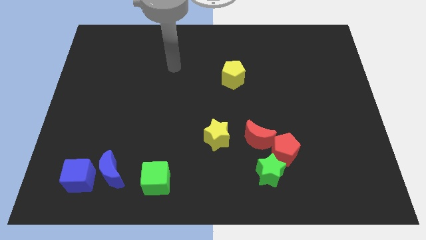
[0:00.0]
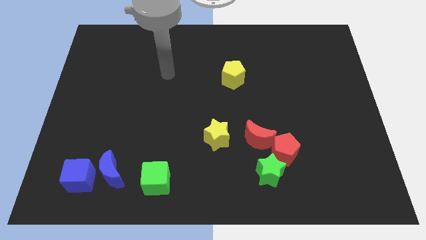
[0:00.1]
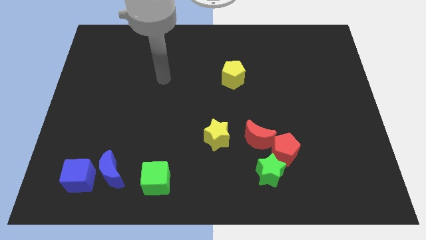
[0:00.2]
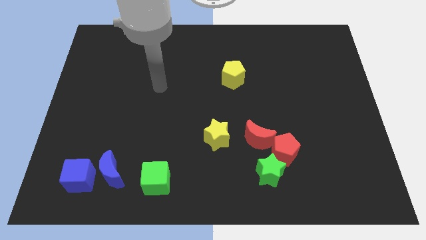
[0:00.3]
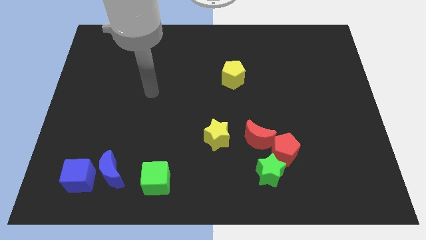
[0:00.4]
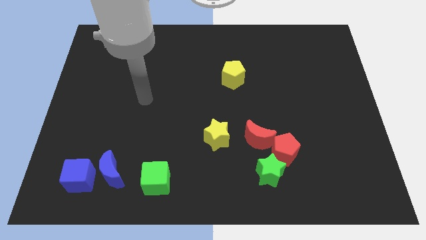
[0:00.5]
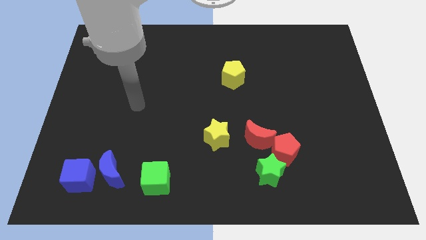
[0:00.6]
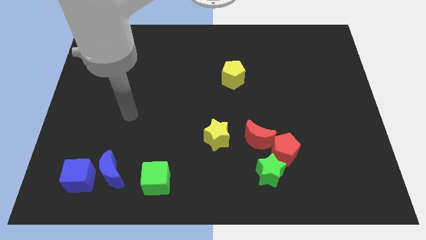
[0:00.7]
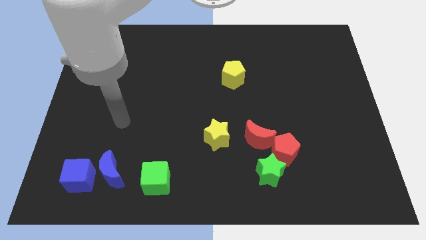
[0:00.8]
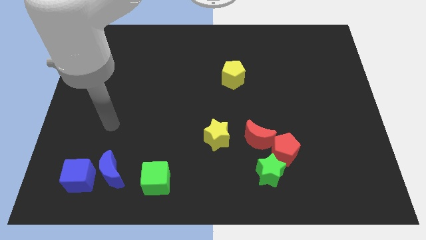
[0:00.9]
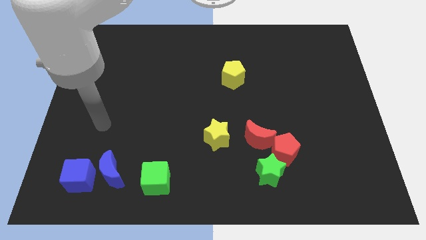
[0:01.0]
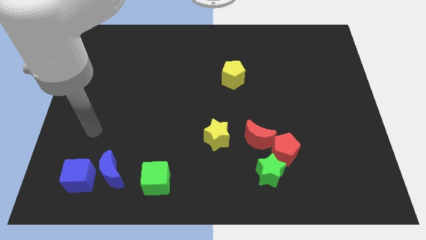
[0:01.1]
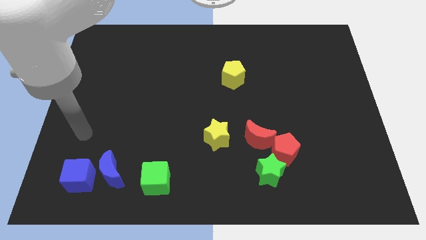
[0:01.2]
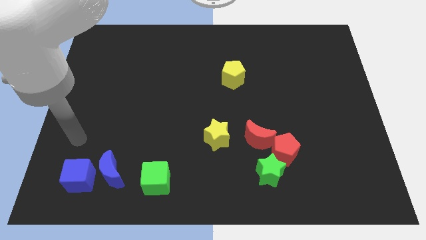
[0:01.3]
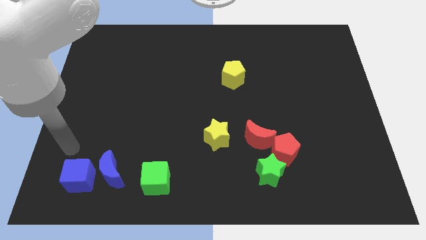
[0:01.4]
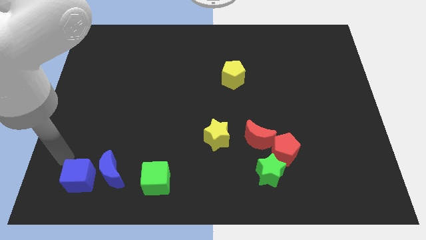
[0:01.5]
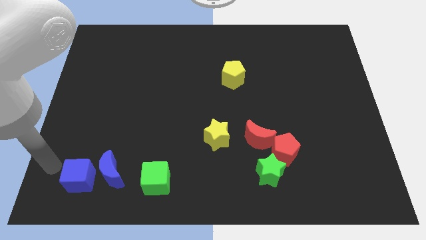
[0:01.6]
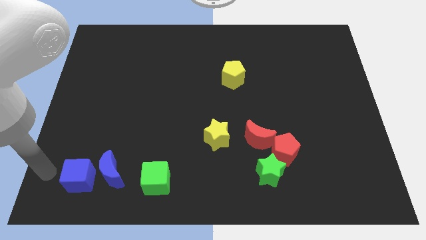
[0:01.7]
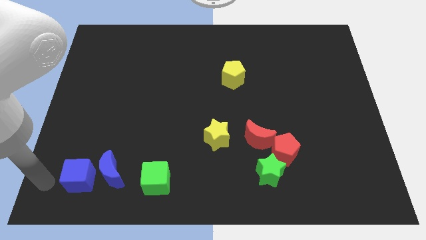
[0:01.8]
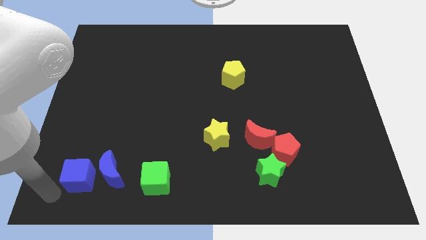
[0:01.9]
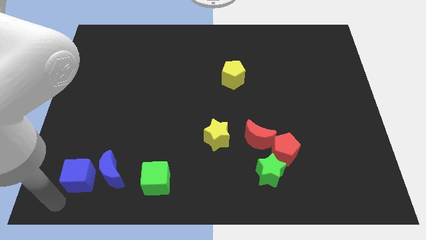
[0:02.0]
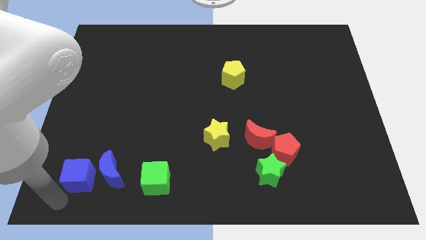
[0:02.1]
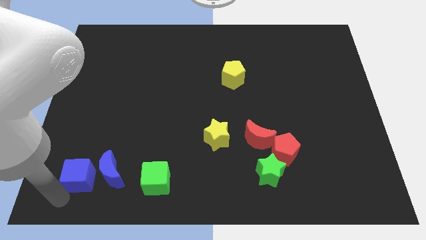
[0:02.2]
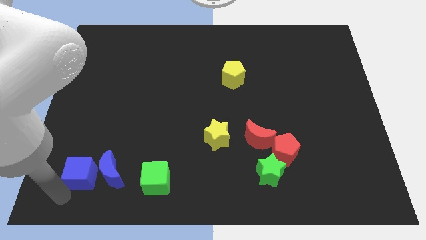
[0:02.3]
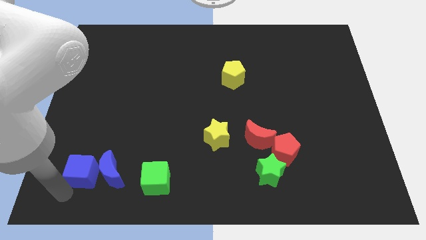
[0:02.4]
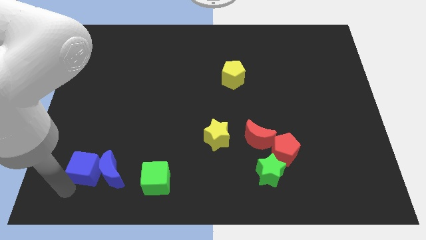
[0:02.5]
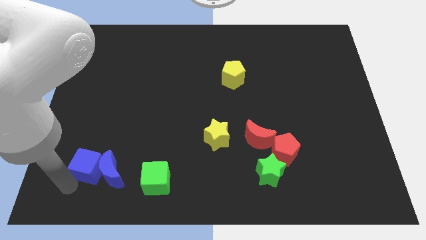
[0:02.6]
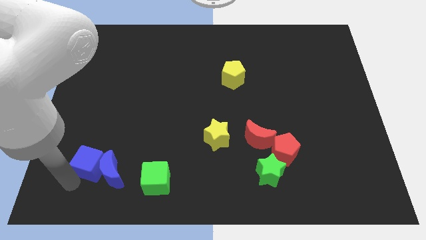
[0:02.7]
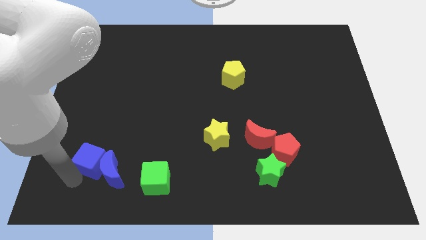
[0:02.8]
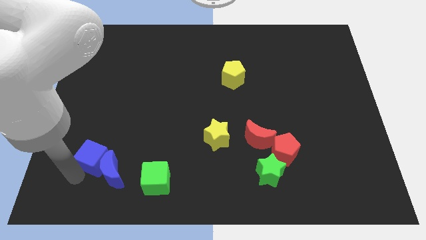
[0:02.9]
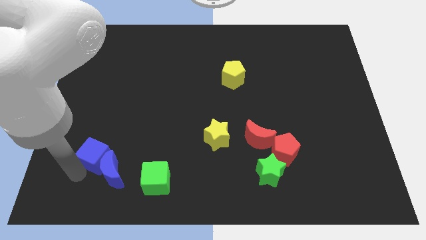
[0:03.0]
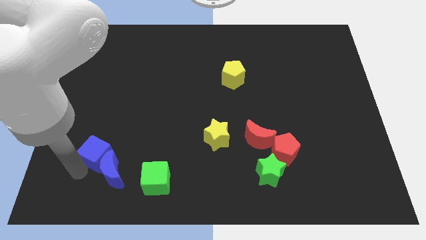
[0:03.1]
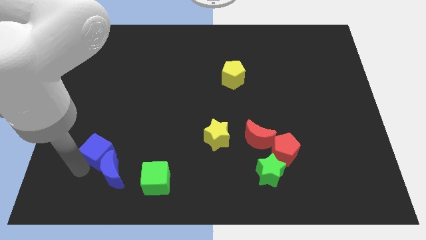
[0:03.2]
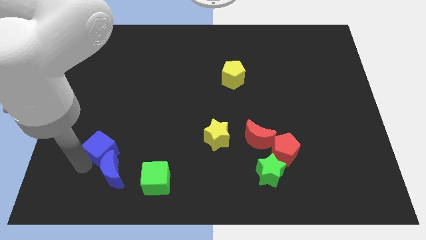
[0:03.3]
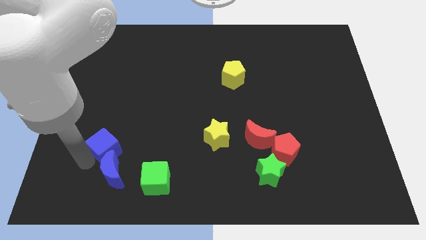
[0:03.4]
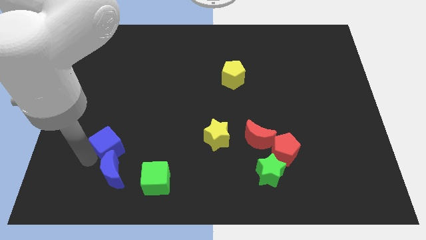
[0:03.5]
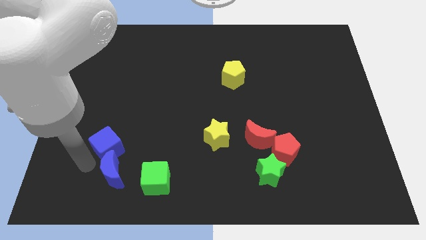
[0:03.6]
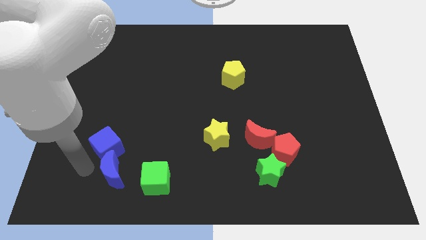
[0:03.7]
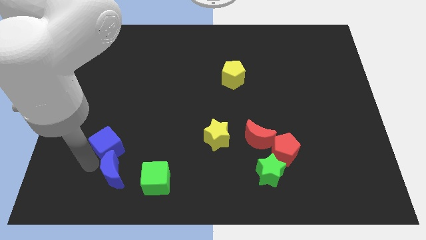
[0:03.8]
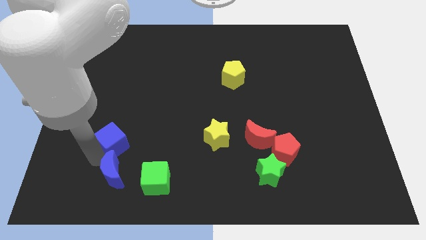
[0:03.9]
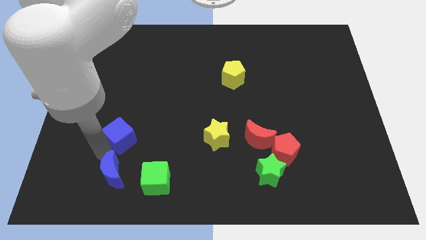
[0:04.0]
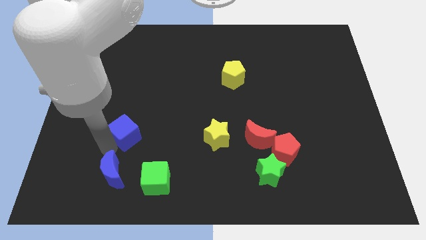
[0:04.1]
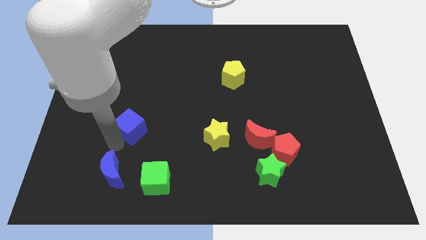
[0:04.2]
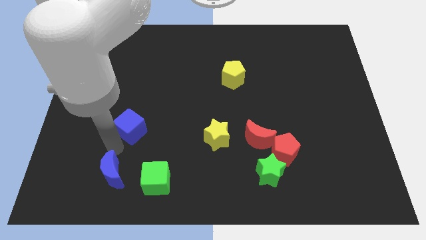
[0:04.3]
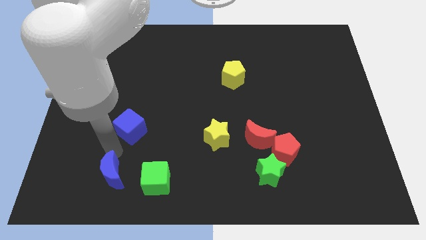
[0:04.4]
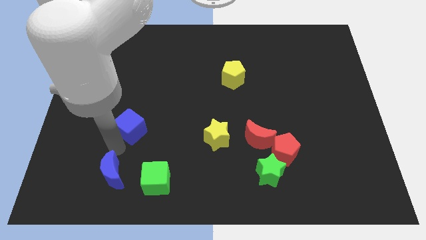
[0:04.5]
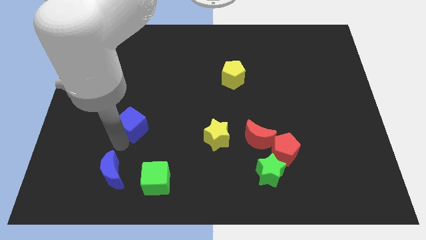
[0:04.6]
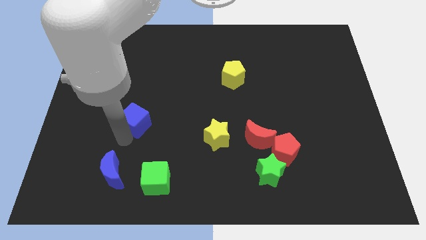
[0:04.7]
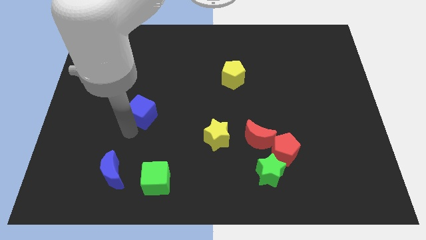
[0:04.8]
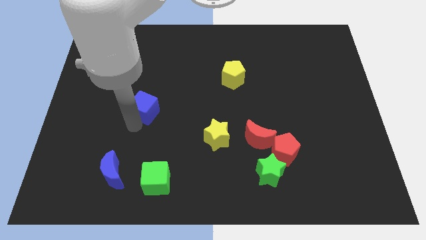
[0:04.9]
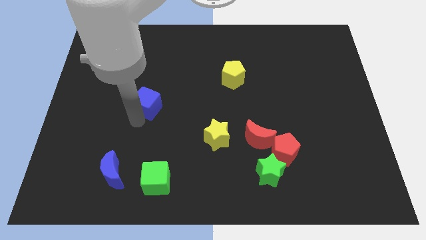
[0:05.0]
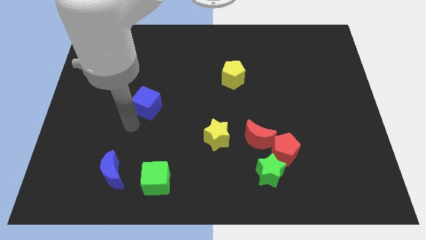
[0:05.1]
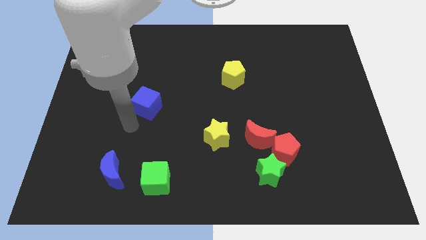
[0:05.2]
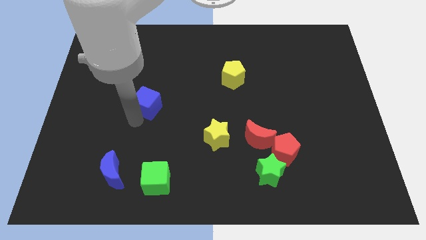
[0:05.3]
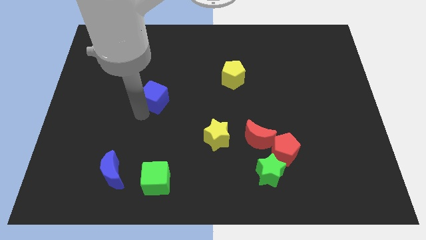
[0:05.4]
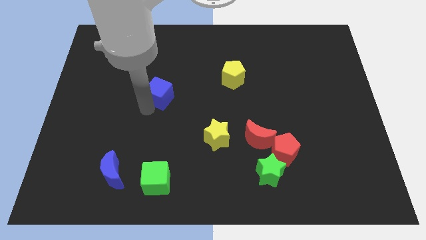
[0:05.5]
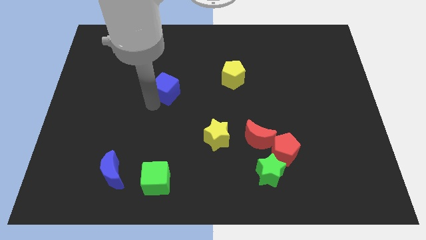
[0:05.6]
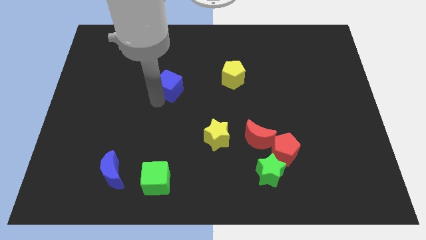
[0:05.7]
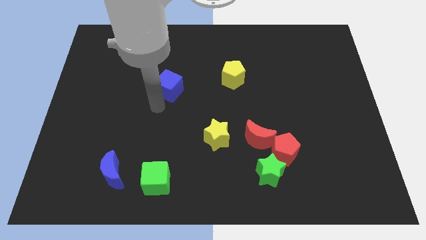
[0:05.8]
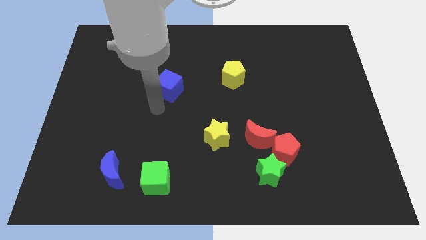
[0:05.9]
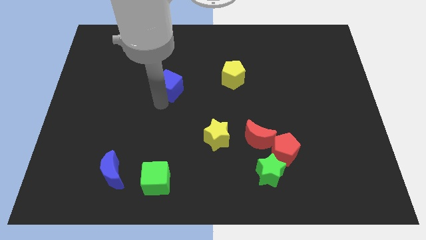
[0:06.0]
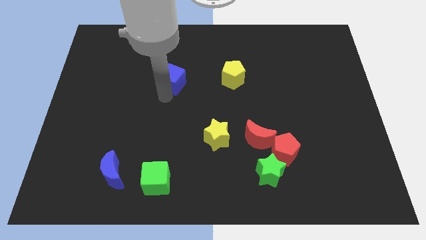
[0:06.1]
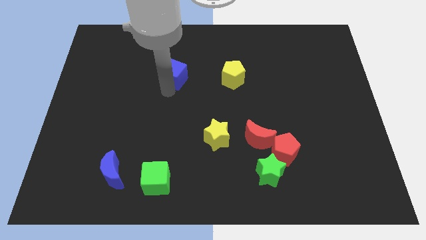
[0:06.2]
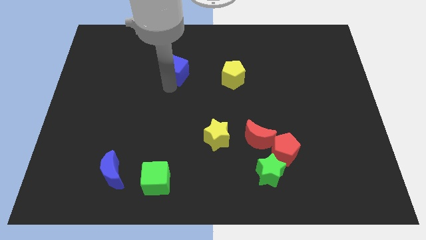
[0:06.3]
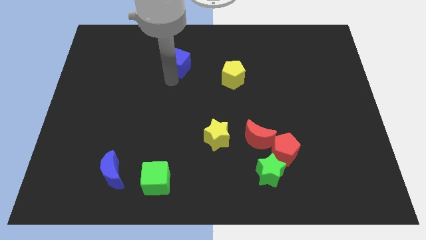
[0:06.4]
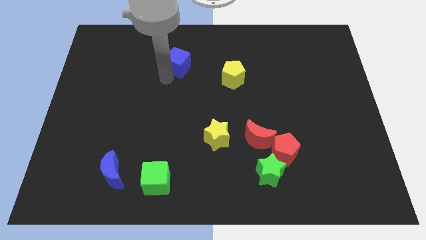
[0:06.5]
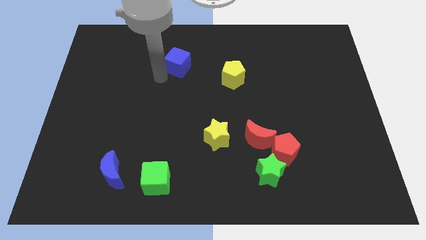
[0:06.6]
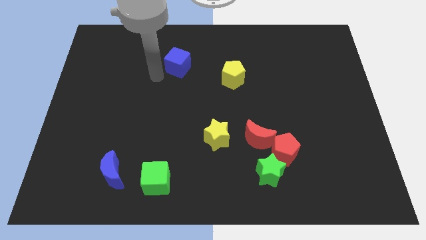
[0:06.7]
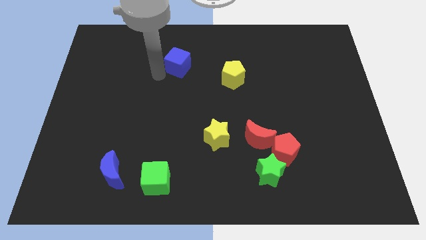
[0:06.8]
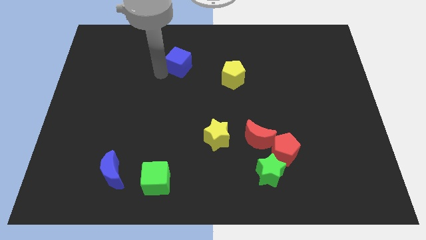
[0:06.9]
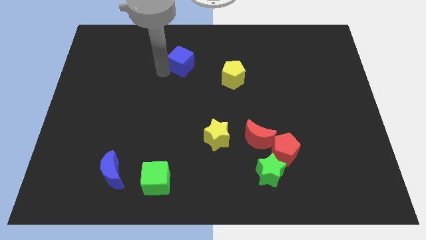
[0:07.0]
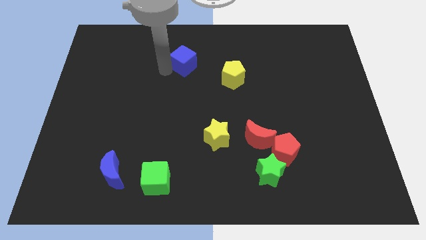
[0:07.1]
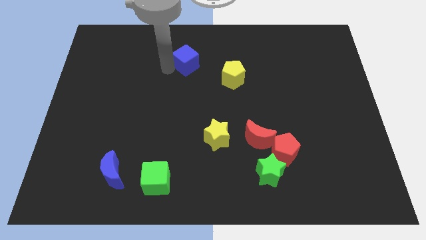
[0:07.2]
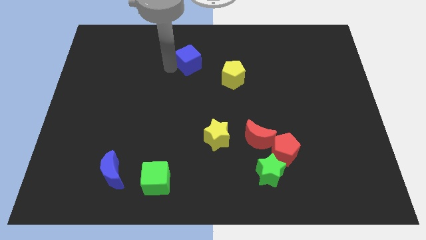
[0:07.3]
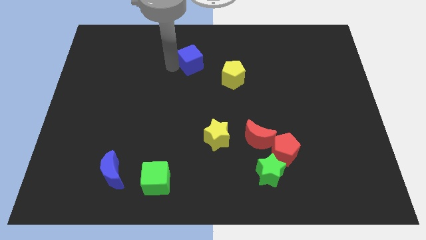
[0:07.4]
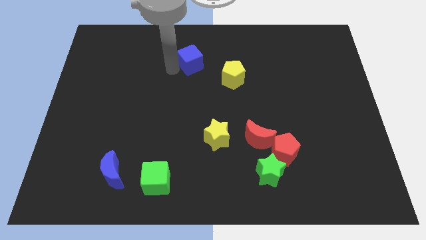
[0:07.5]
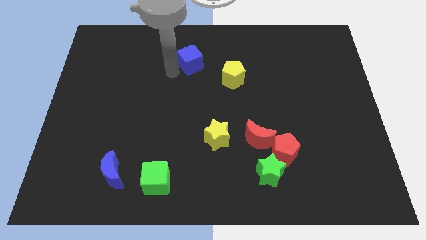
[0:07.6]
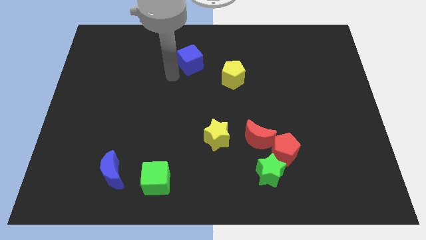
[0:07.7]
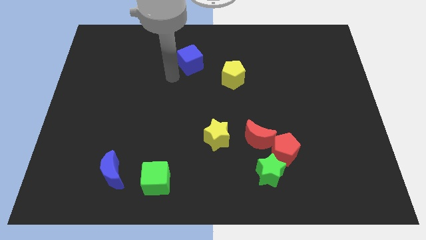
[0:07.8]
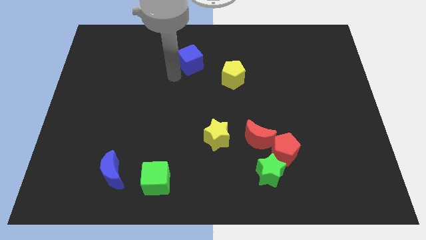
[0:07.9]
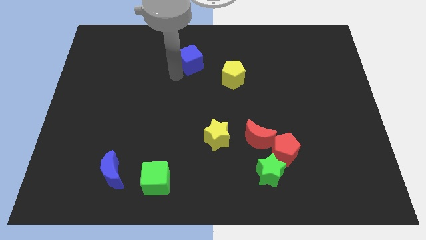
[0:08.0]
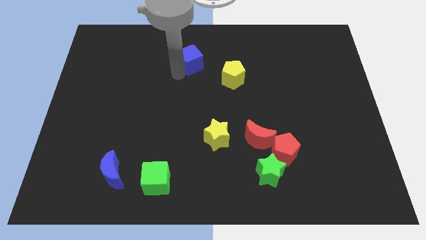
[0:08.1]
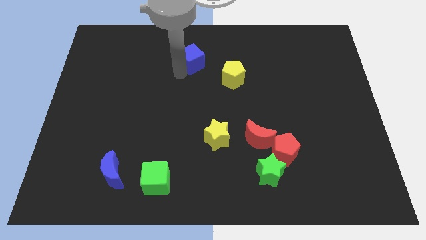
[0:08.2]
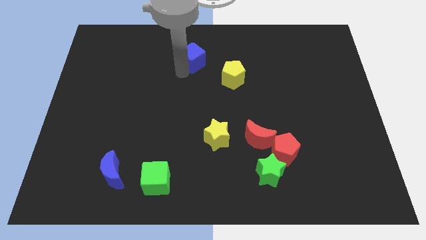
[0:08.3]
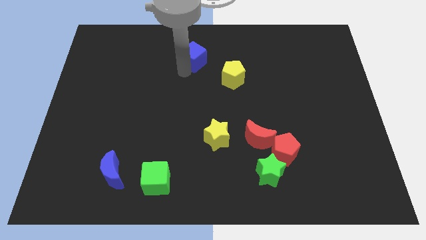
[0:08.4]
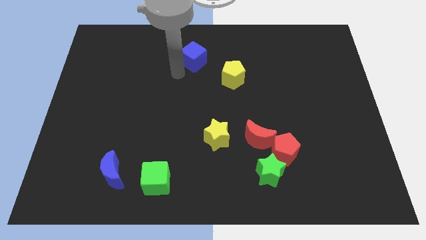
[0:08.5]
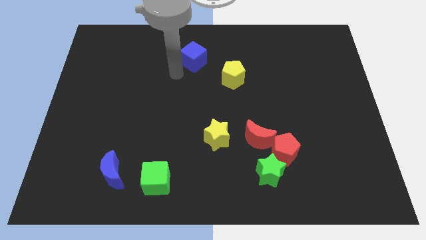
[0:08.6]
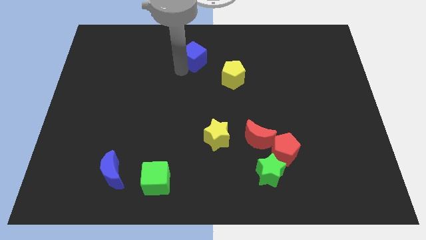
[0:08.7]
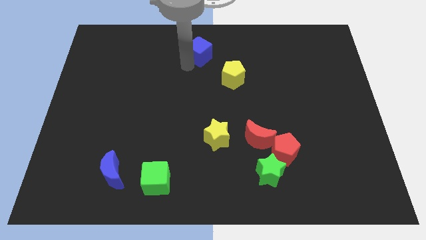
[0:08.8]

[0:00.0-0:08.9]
move the blue cube to the top
